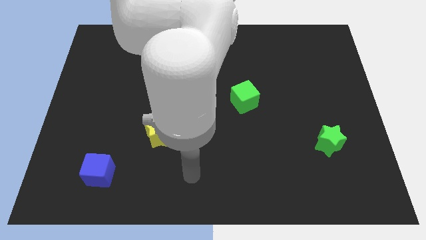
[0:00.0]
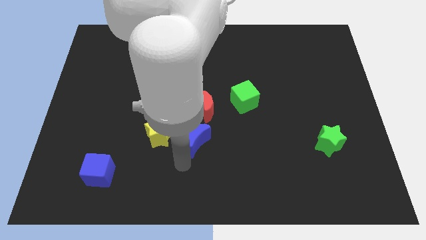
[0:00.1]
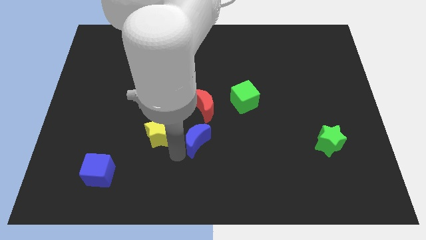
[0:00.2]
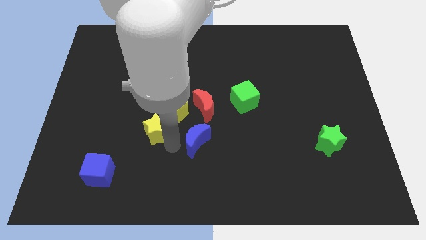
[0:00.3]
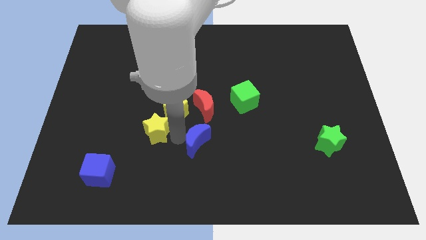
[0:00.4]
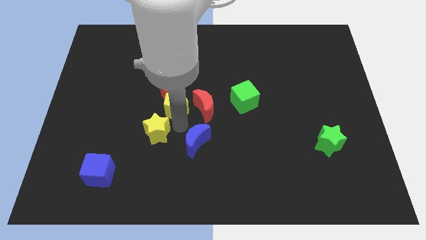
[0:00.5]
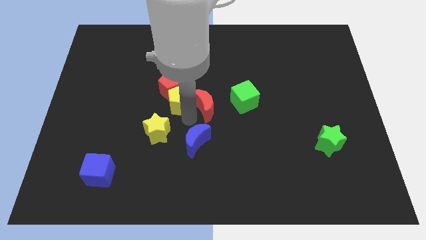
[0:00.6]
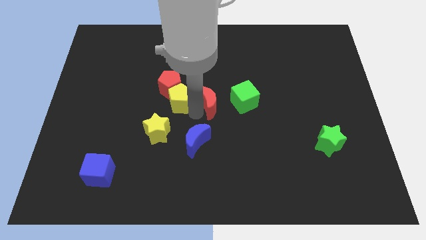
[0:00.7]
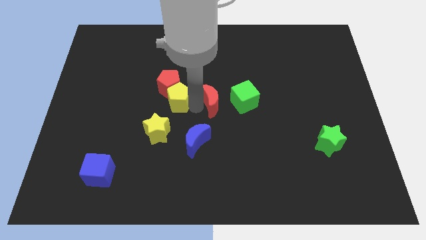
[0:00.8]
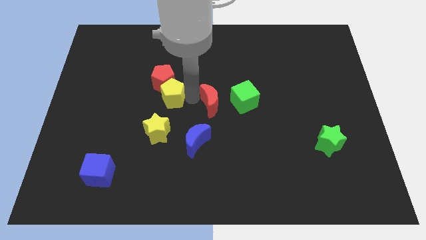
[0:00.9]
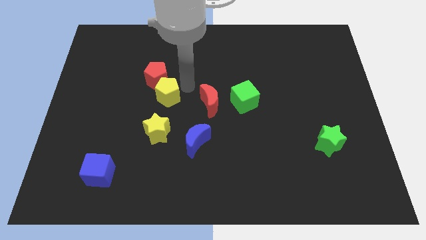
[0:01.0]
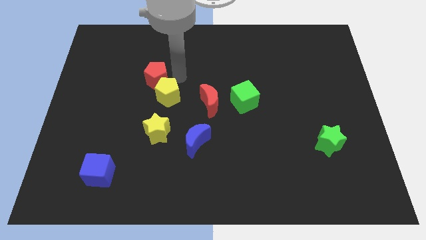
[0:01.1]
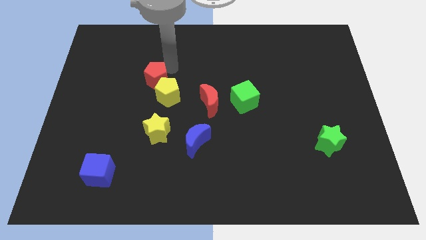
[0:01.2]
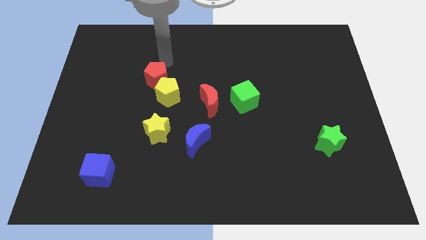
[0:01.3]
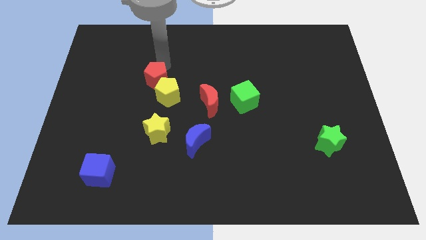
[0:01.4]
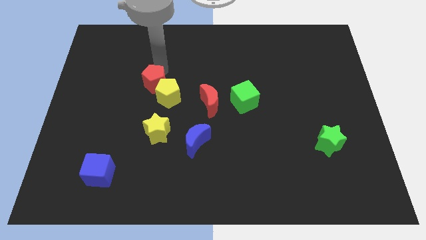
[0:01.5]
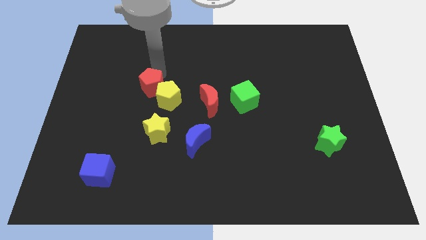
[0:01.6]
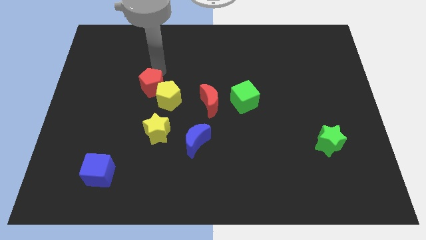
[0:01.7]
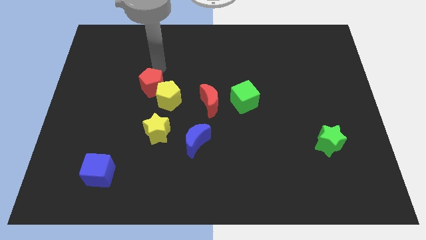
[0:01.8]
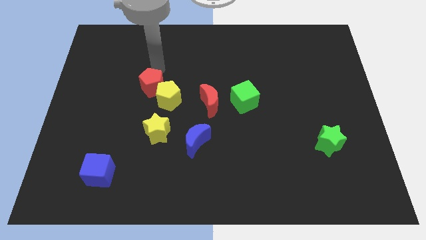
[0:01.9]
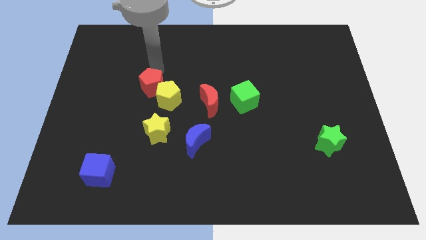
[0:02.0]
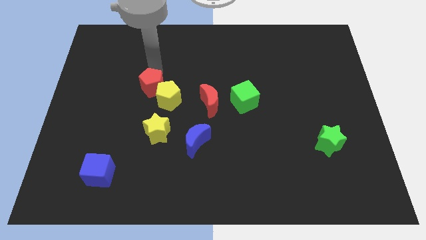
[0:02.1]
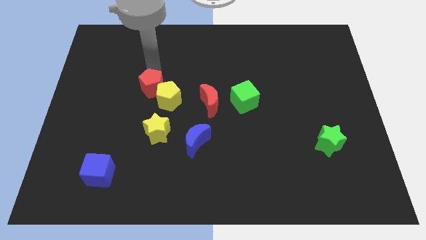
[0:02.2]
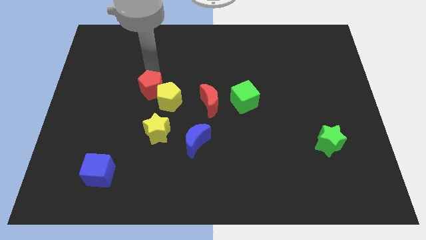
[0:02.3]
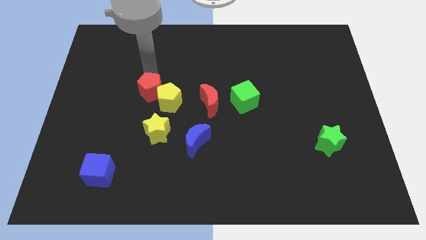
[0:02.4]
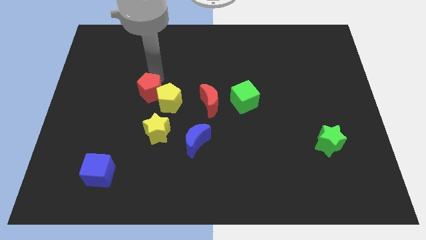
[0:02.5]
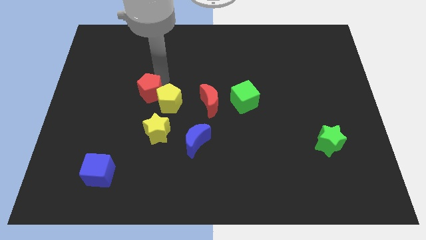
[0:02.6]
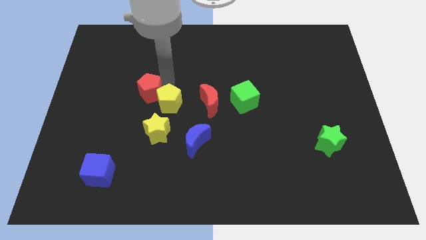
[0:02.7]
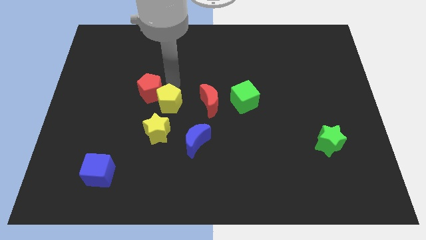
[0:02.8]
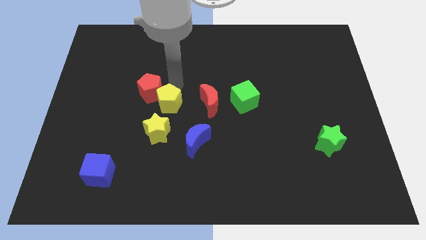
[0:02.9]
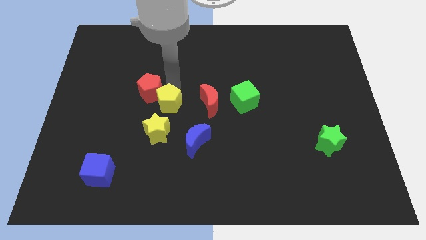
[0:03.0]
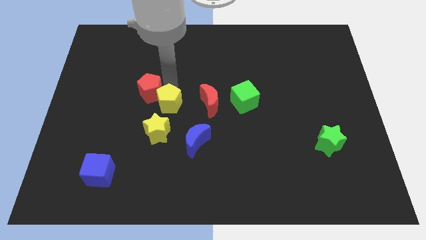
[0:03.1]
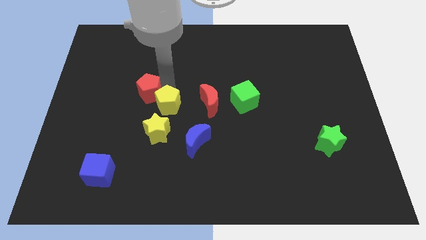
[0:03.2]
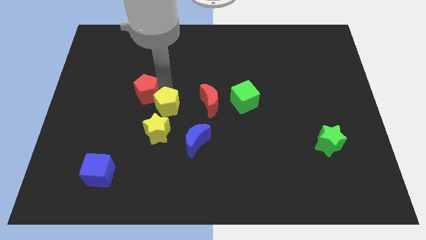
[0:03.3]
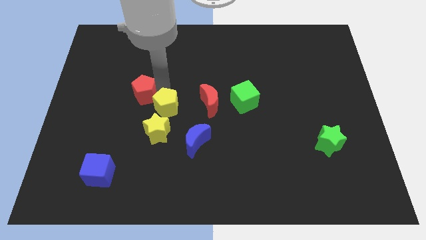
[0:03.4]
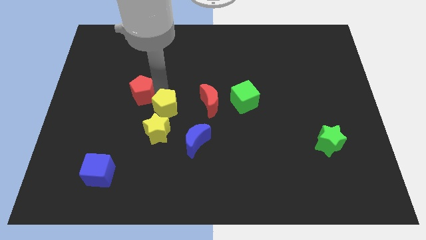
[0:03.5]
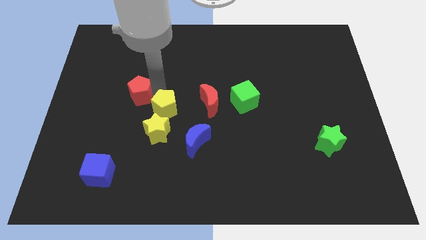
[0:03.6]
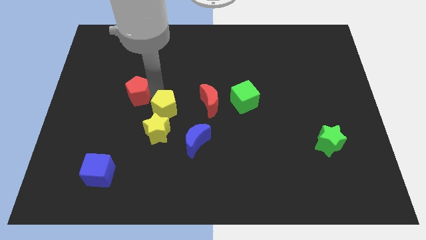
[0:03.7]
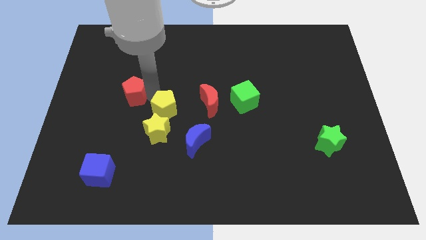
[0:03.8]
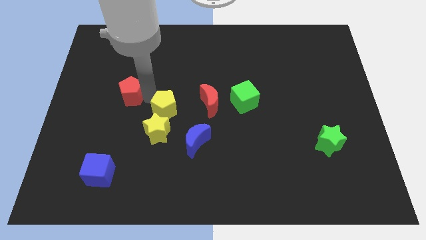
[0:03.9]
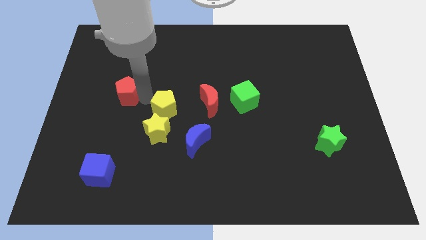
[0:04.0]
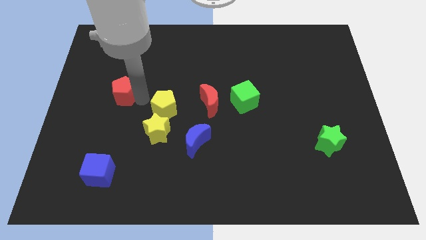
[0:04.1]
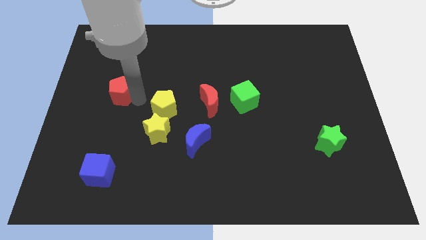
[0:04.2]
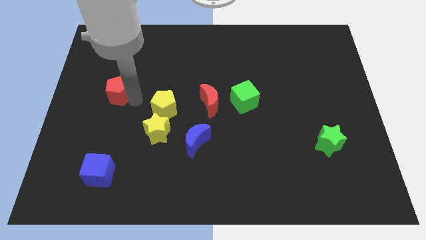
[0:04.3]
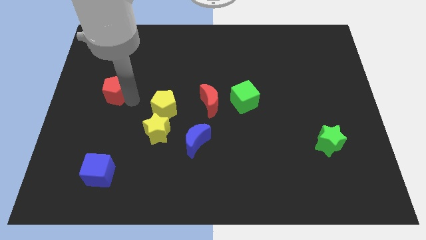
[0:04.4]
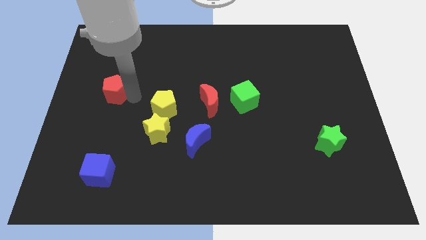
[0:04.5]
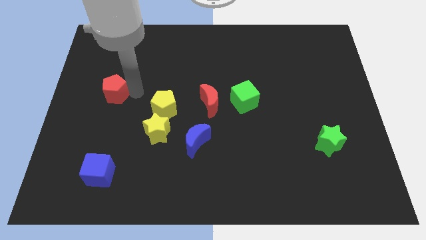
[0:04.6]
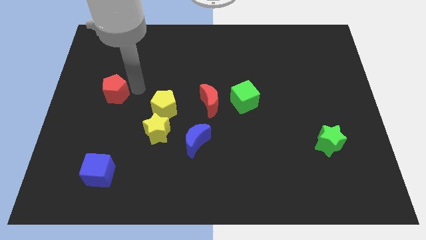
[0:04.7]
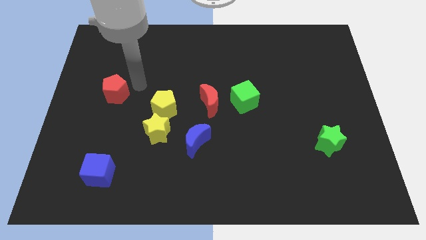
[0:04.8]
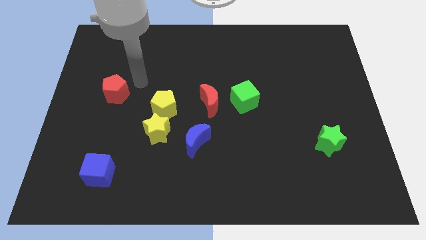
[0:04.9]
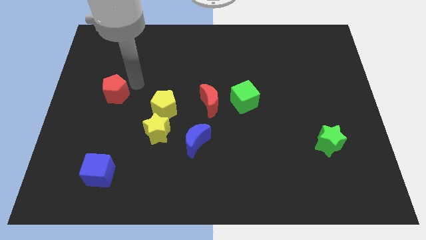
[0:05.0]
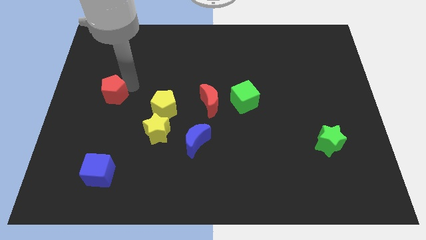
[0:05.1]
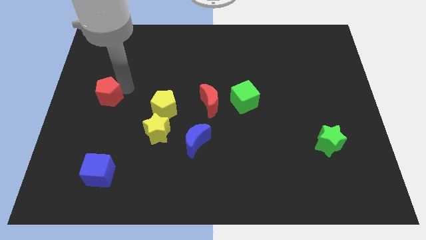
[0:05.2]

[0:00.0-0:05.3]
push the red pentagon to the left side

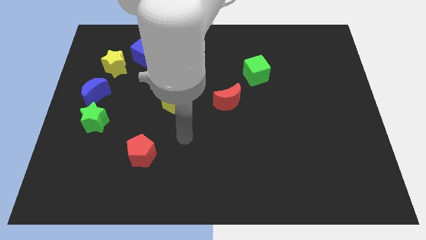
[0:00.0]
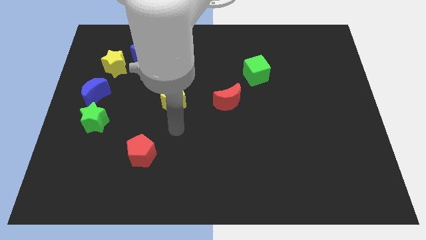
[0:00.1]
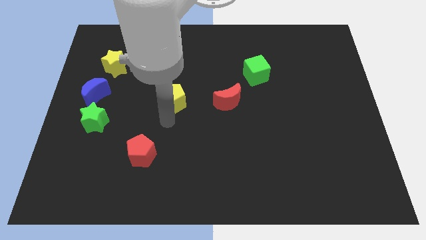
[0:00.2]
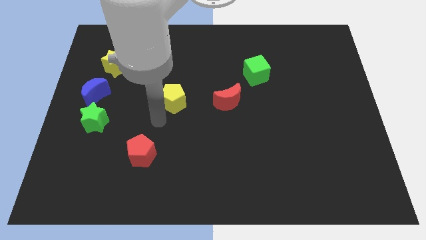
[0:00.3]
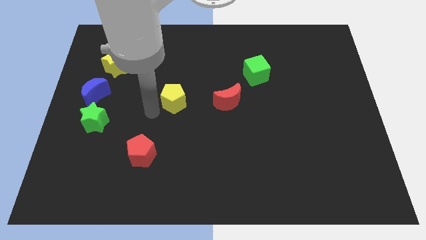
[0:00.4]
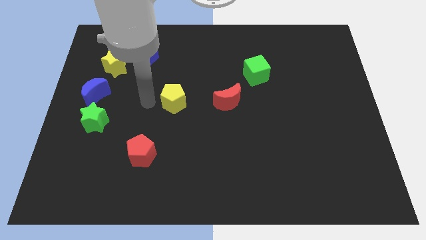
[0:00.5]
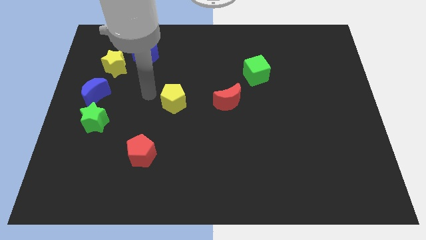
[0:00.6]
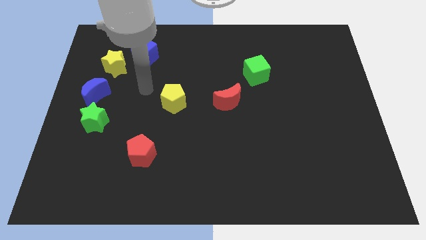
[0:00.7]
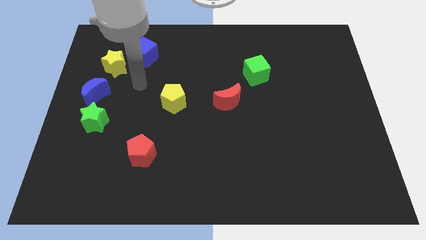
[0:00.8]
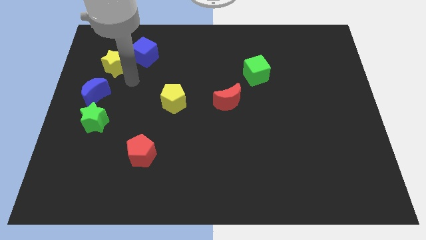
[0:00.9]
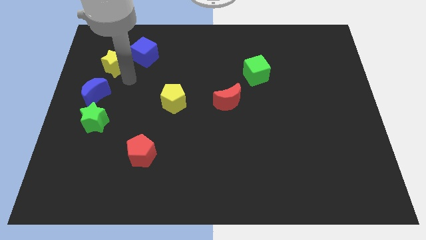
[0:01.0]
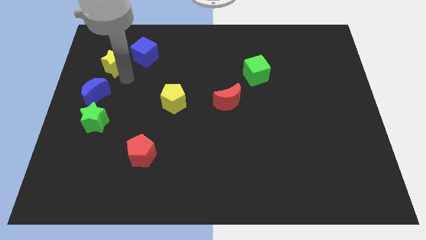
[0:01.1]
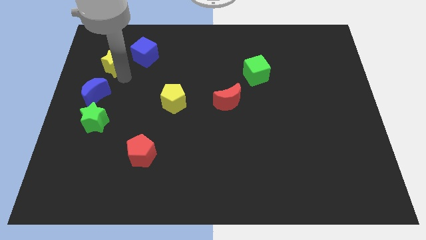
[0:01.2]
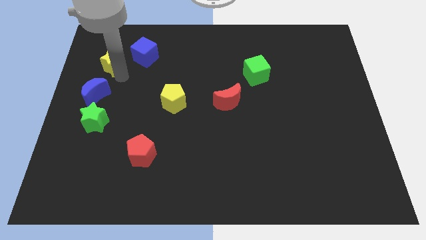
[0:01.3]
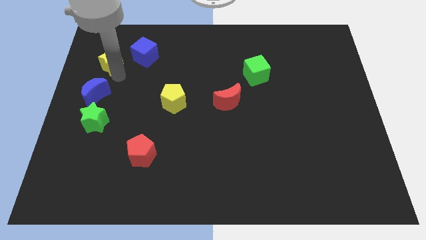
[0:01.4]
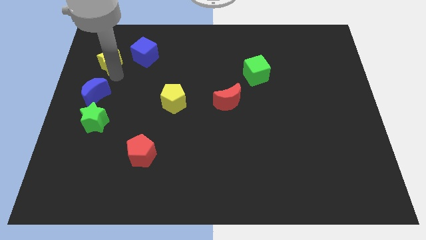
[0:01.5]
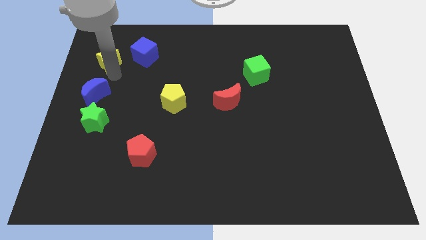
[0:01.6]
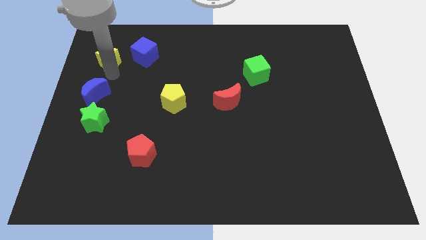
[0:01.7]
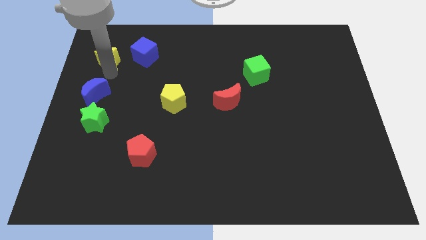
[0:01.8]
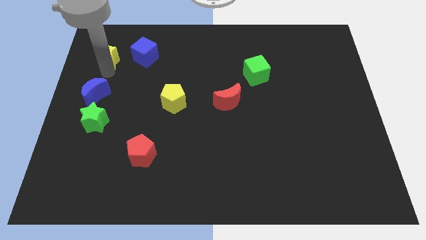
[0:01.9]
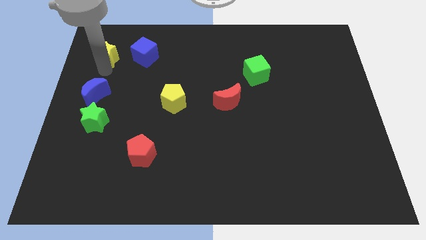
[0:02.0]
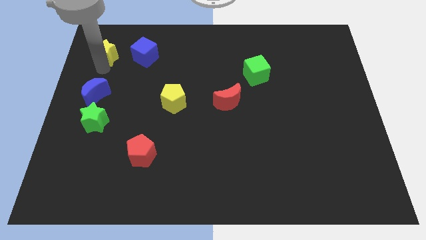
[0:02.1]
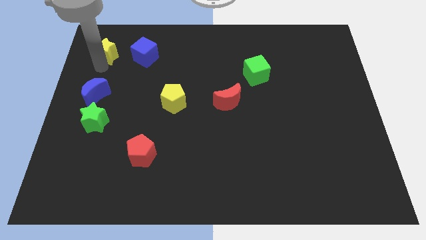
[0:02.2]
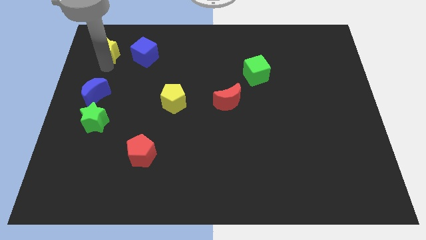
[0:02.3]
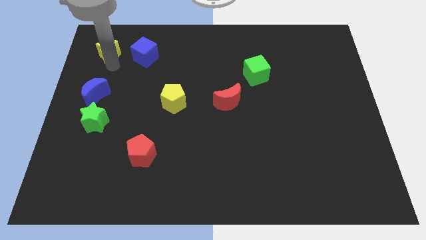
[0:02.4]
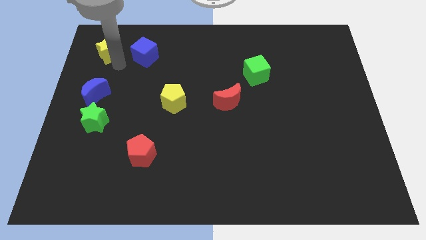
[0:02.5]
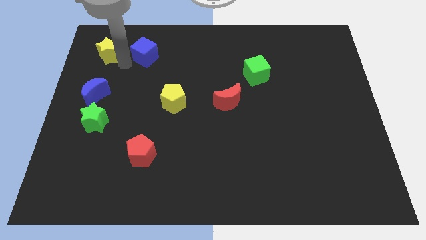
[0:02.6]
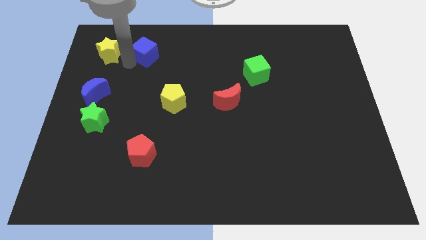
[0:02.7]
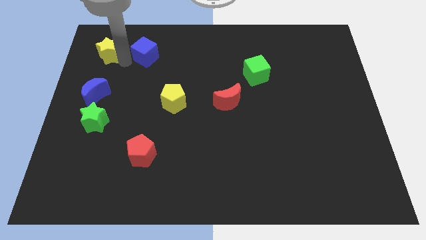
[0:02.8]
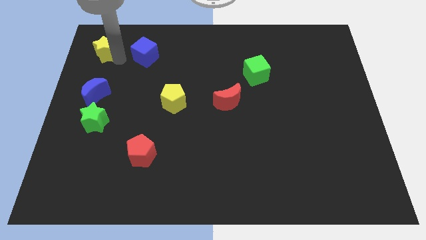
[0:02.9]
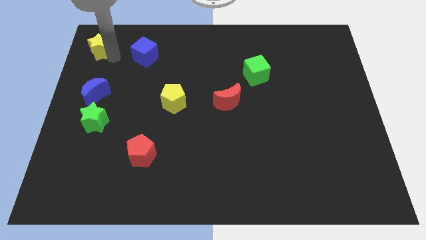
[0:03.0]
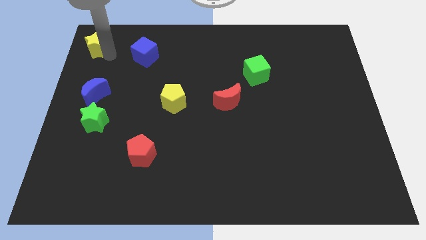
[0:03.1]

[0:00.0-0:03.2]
move the yellow star to the upper left corner
